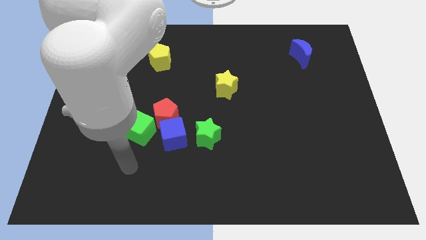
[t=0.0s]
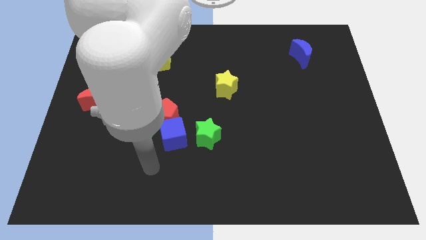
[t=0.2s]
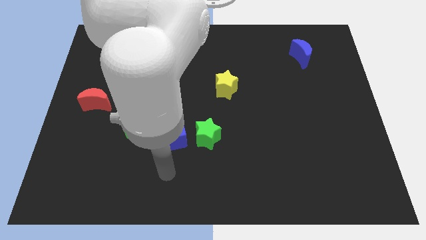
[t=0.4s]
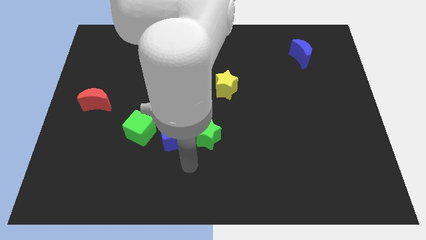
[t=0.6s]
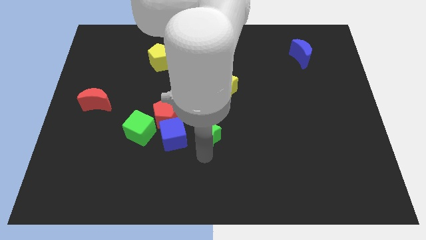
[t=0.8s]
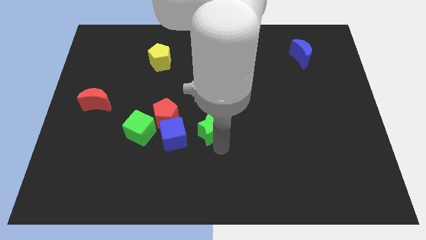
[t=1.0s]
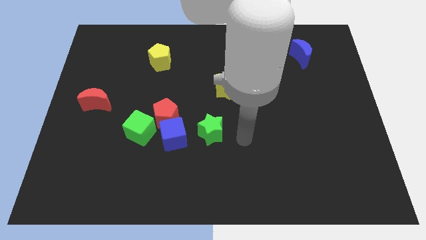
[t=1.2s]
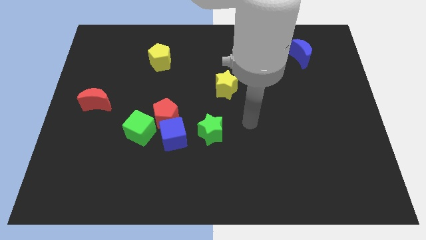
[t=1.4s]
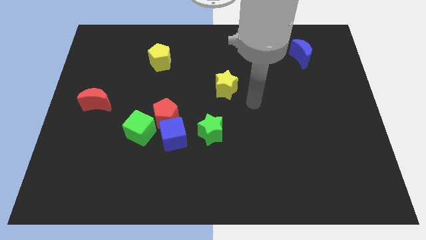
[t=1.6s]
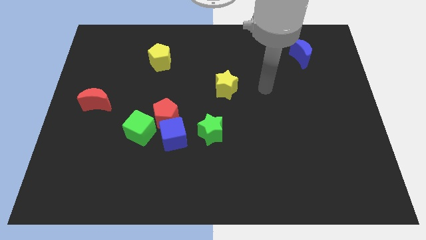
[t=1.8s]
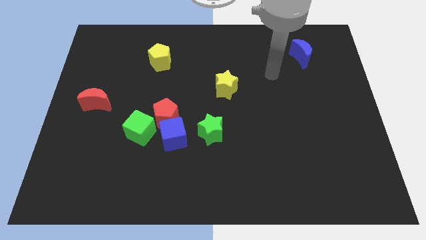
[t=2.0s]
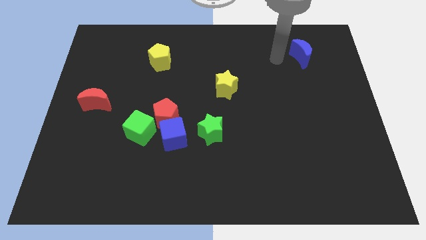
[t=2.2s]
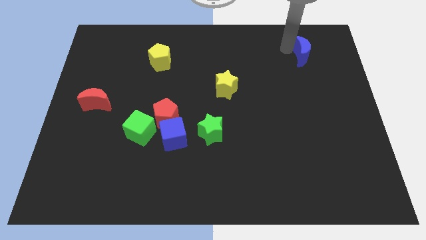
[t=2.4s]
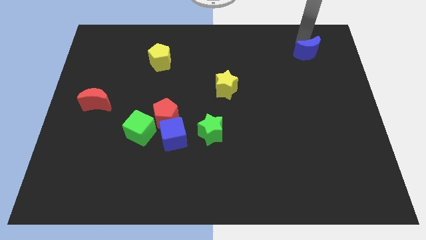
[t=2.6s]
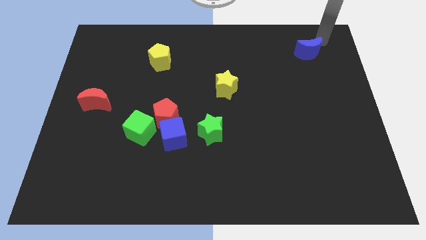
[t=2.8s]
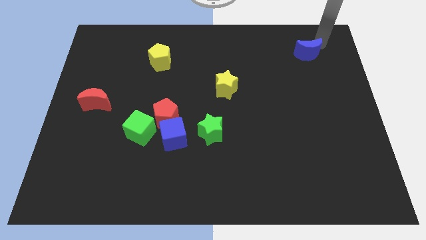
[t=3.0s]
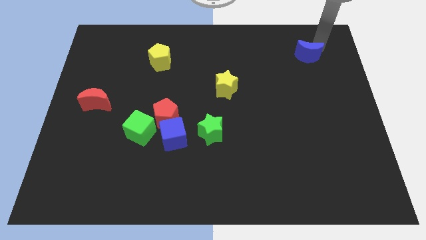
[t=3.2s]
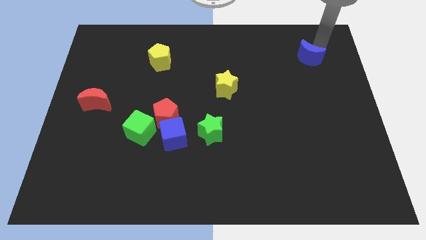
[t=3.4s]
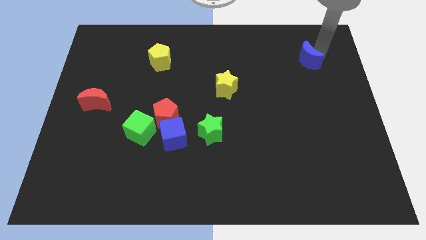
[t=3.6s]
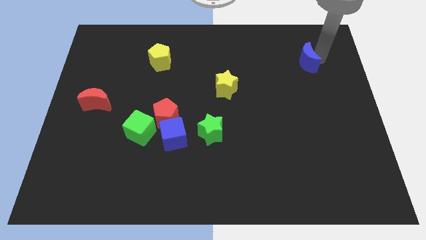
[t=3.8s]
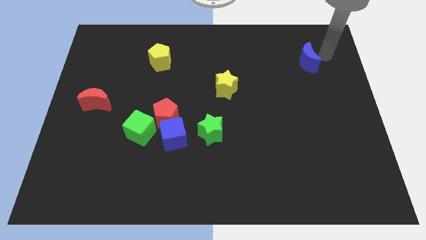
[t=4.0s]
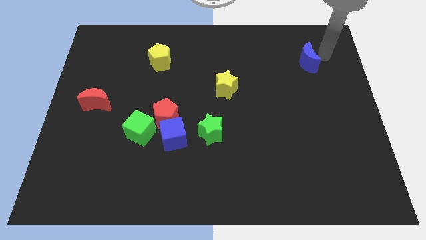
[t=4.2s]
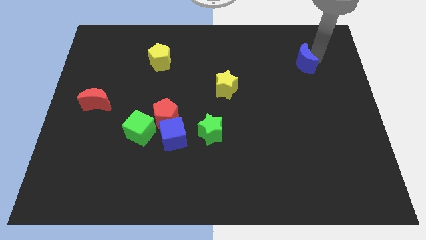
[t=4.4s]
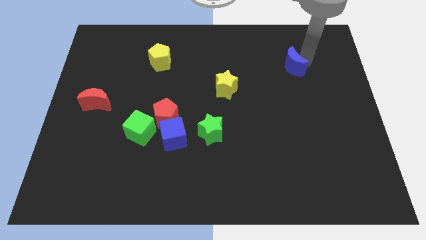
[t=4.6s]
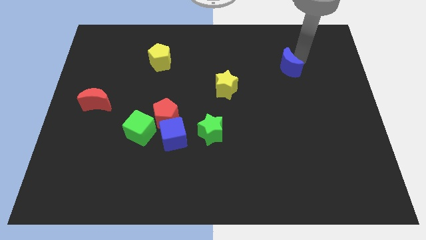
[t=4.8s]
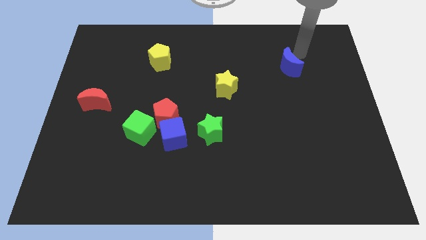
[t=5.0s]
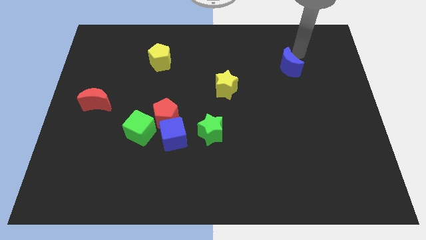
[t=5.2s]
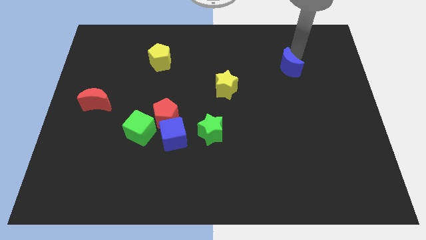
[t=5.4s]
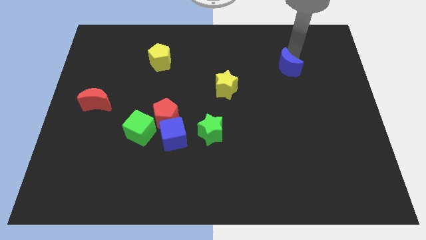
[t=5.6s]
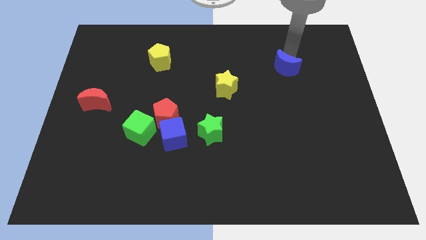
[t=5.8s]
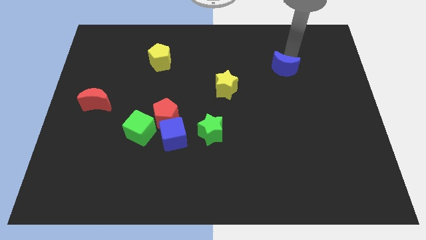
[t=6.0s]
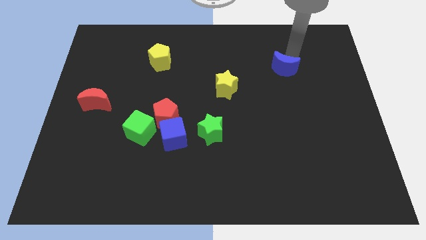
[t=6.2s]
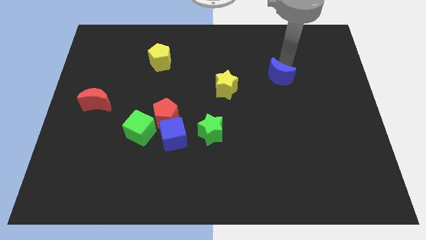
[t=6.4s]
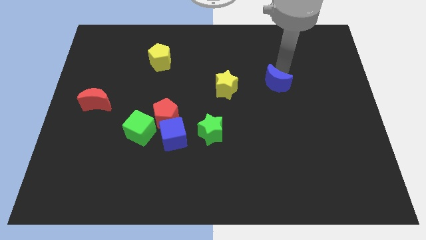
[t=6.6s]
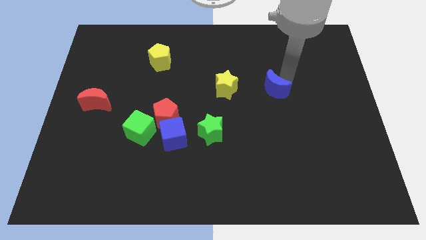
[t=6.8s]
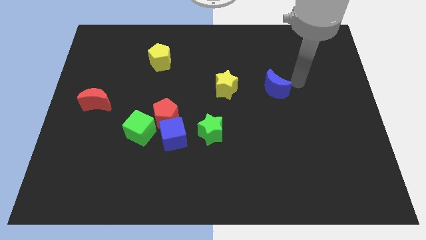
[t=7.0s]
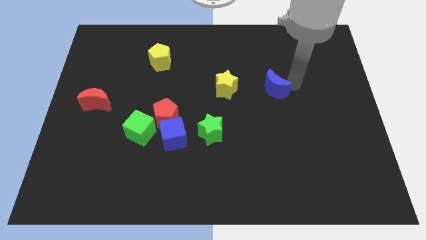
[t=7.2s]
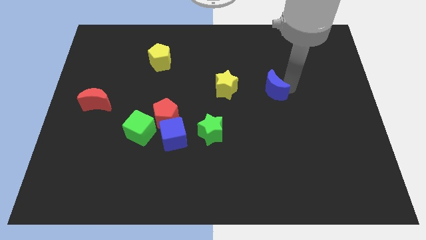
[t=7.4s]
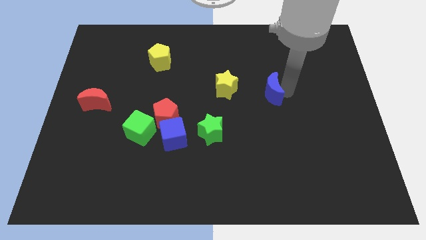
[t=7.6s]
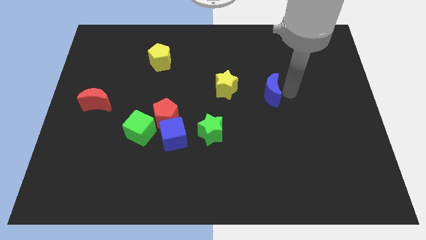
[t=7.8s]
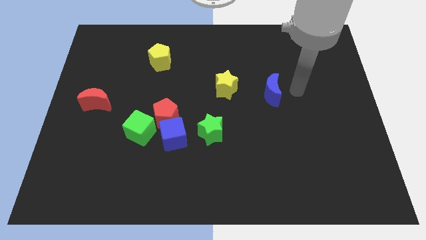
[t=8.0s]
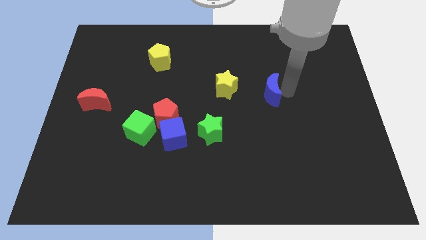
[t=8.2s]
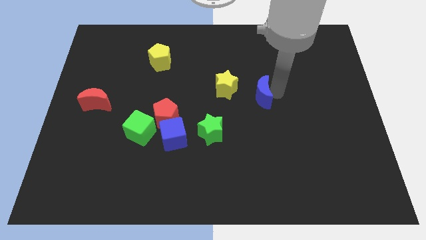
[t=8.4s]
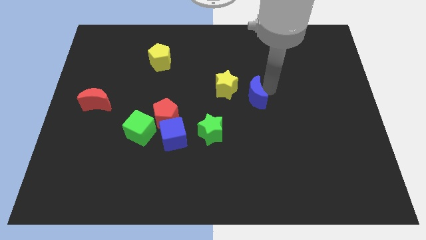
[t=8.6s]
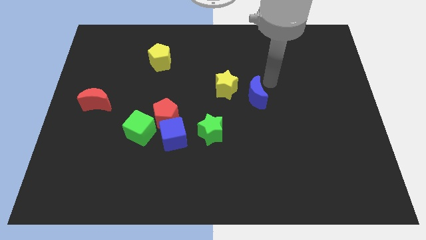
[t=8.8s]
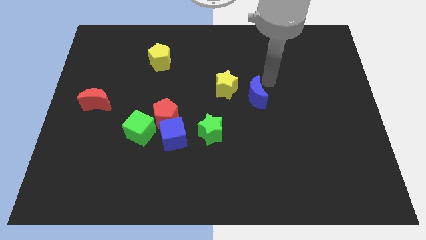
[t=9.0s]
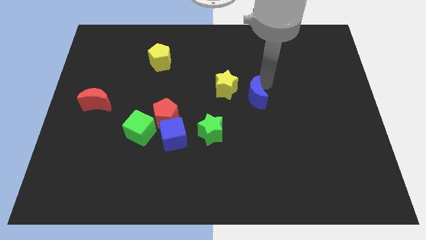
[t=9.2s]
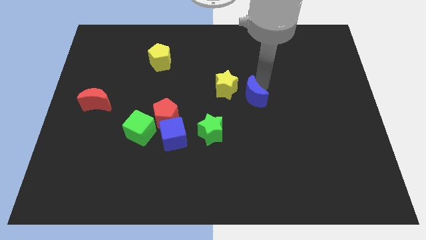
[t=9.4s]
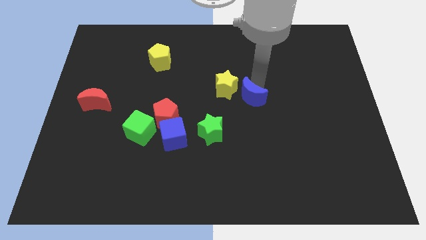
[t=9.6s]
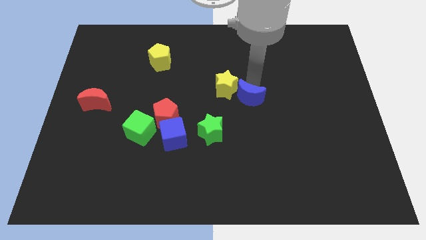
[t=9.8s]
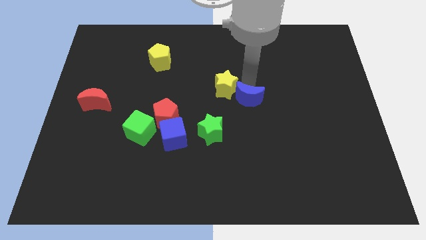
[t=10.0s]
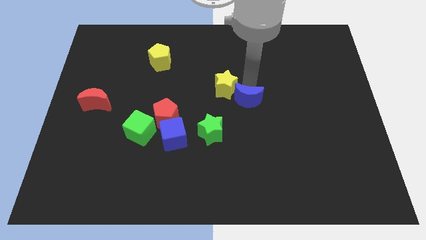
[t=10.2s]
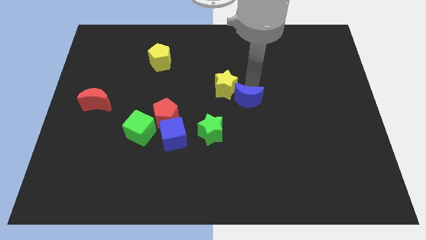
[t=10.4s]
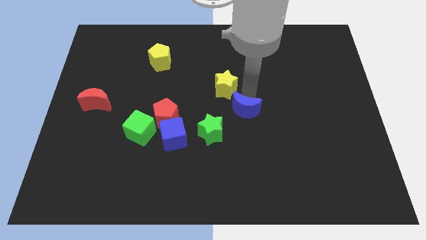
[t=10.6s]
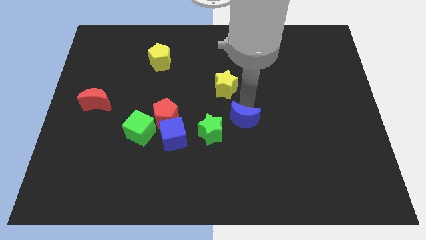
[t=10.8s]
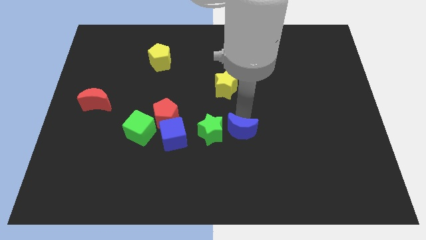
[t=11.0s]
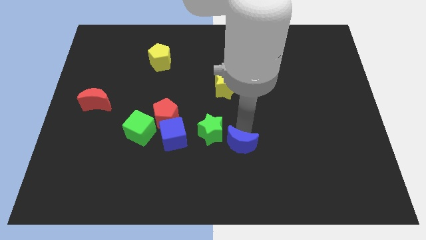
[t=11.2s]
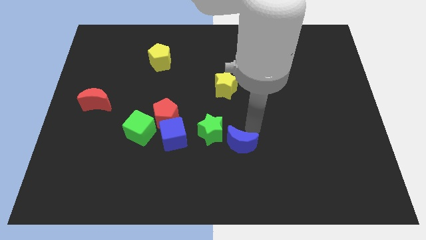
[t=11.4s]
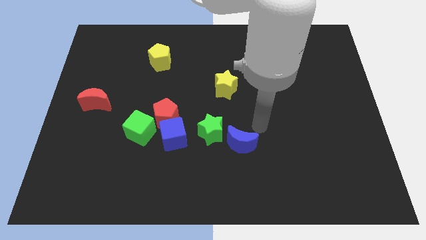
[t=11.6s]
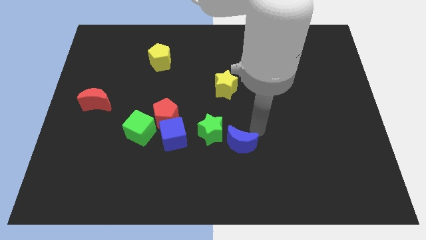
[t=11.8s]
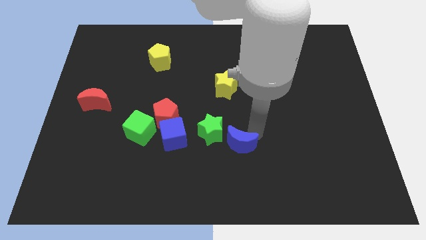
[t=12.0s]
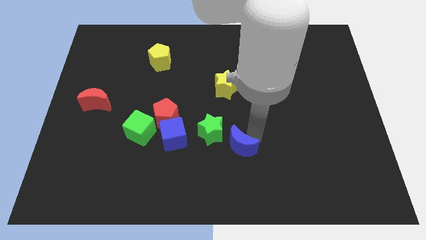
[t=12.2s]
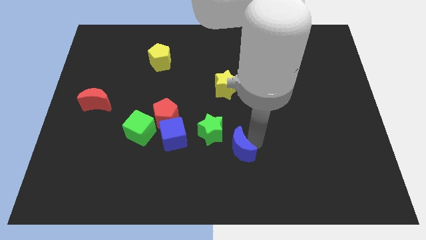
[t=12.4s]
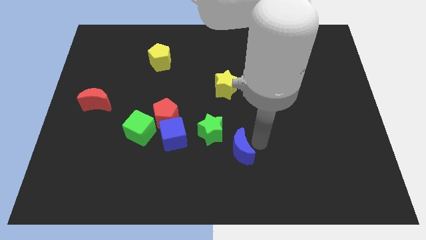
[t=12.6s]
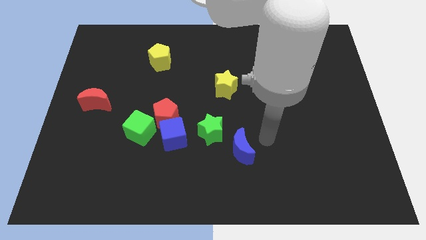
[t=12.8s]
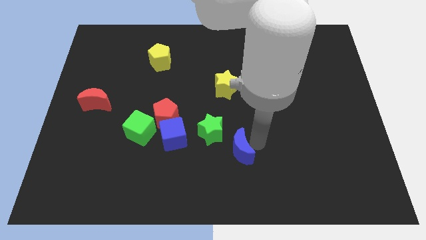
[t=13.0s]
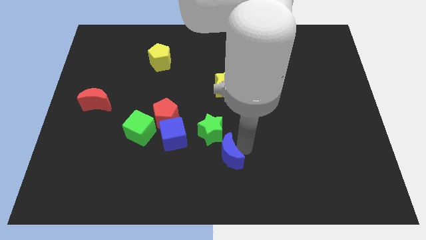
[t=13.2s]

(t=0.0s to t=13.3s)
slide the blue moon to the bottom side of the green star
